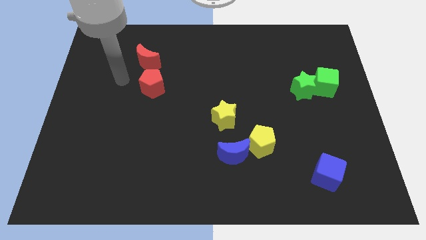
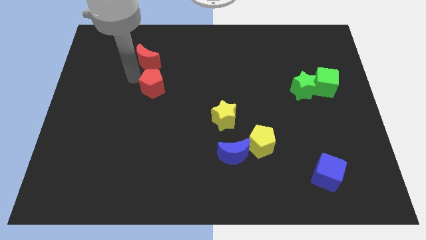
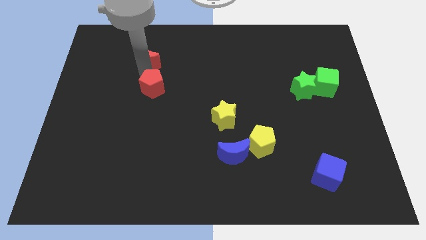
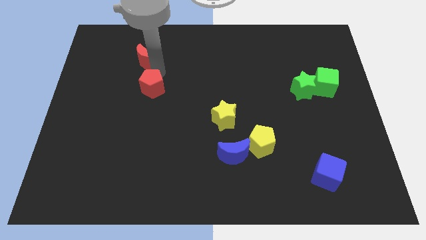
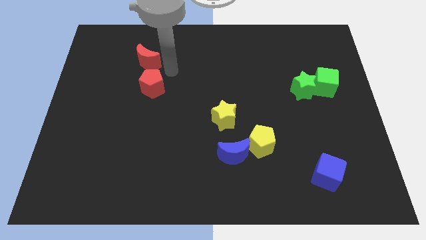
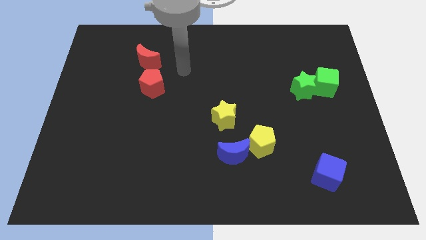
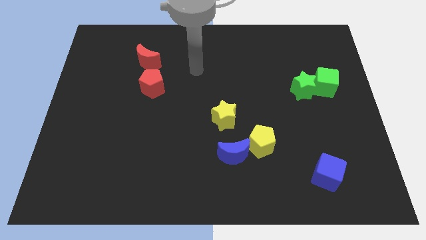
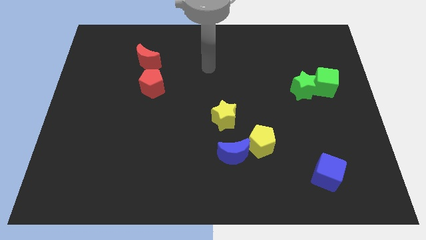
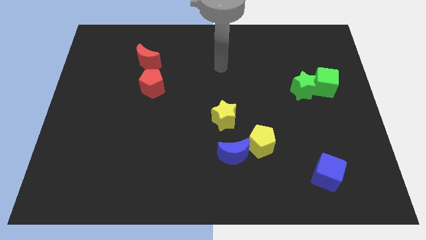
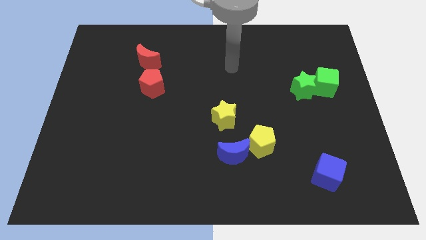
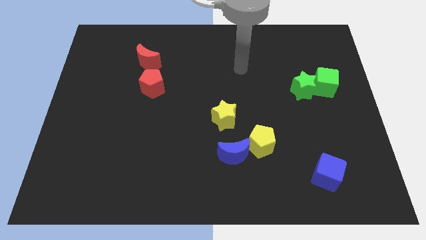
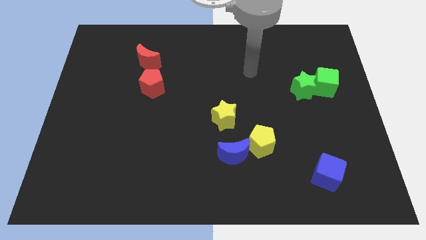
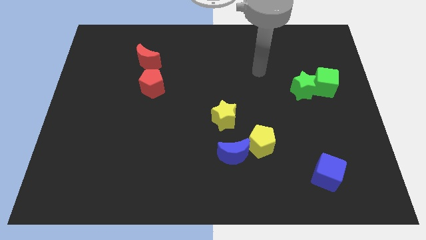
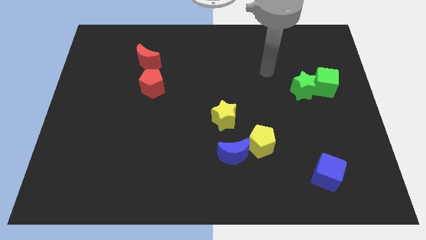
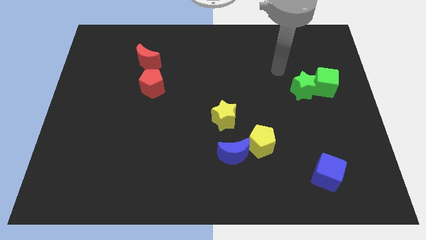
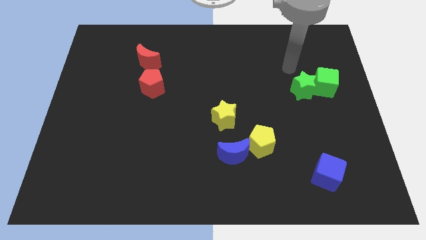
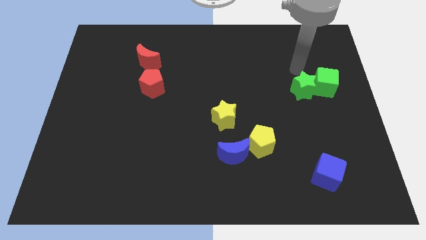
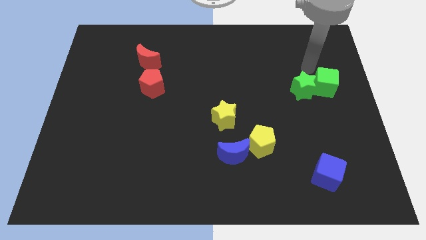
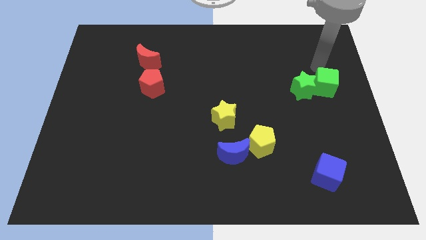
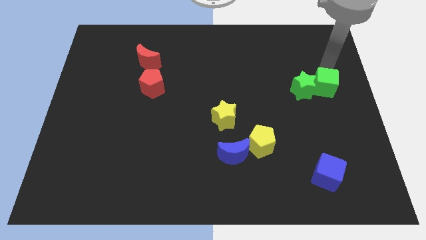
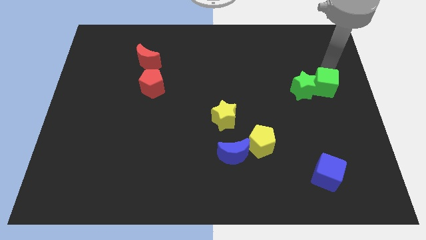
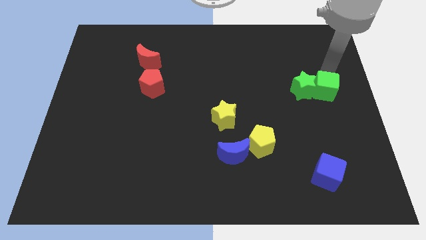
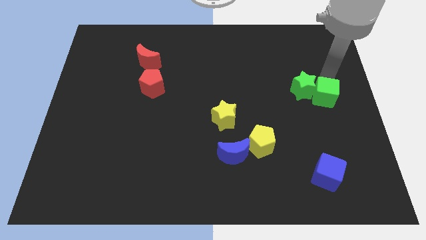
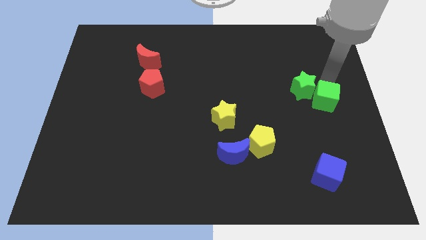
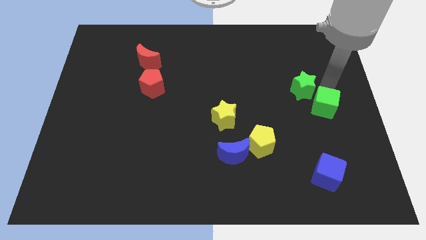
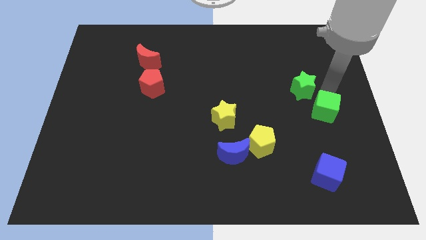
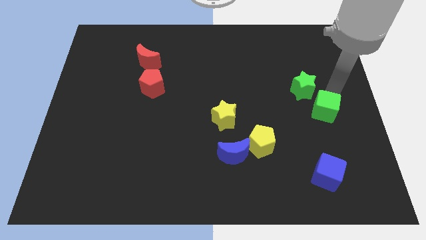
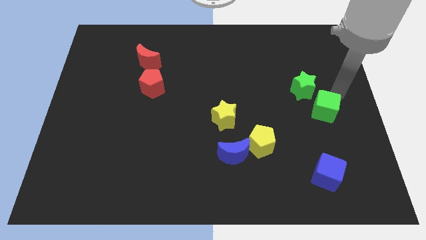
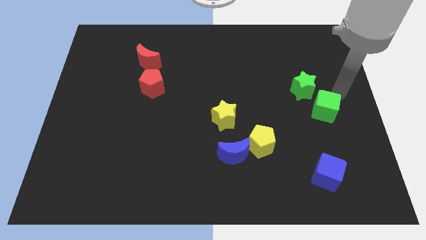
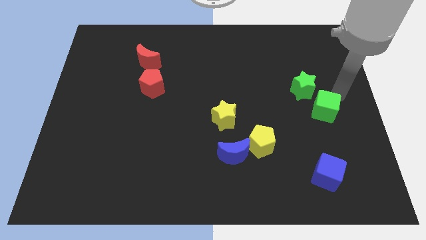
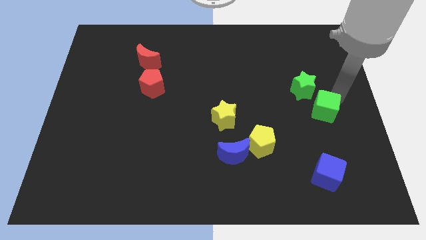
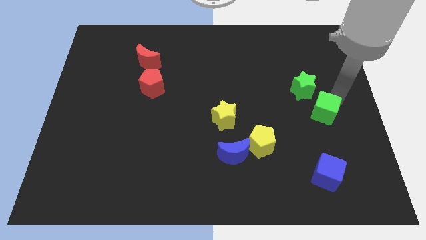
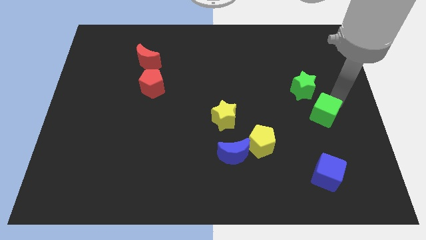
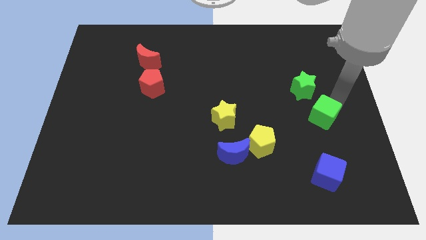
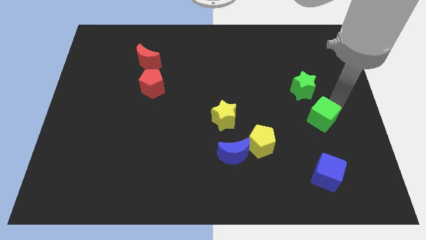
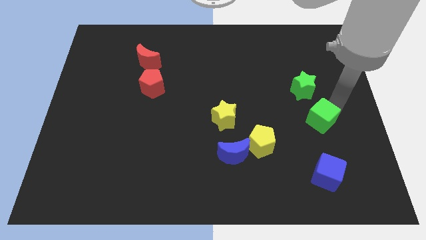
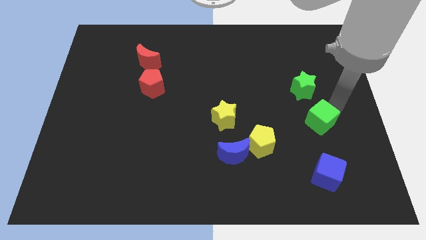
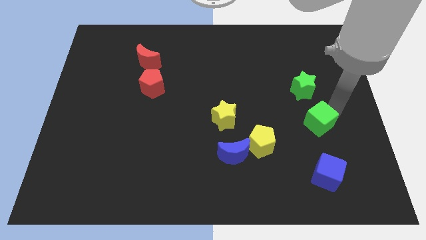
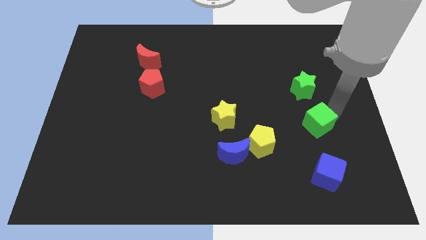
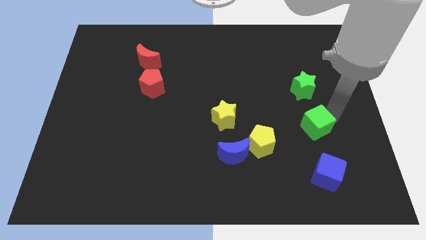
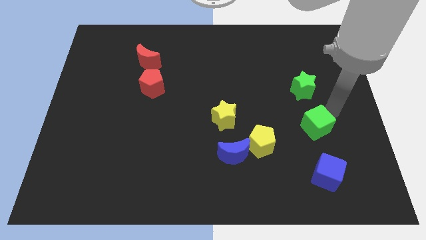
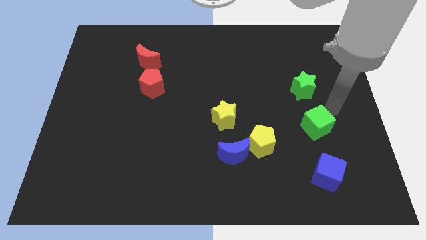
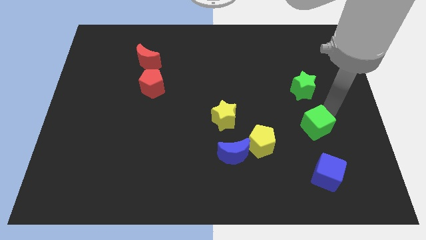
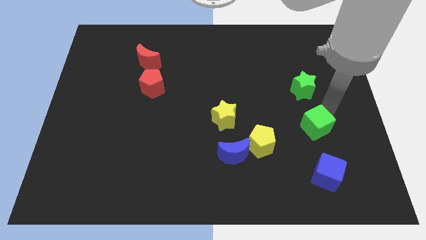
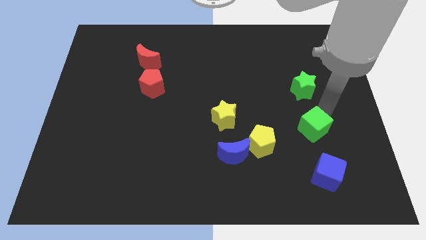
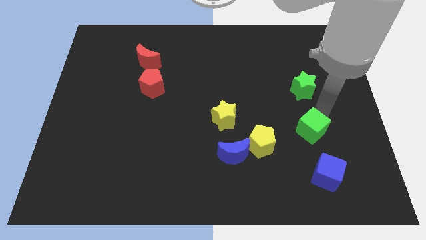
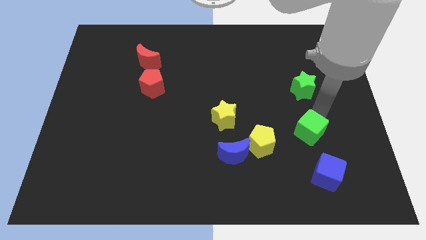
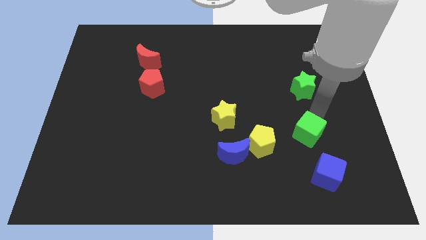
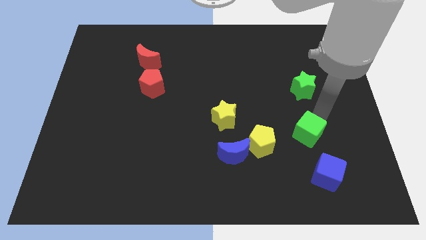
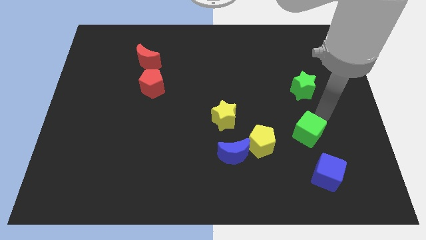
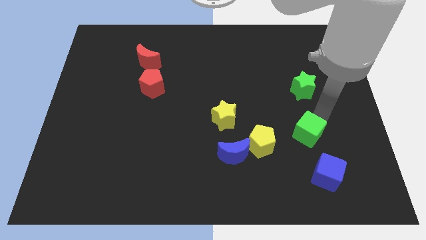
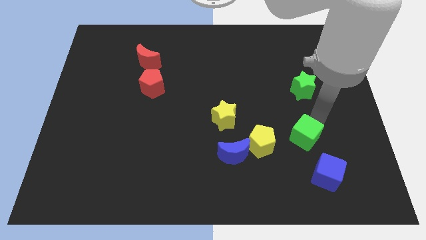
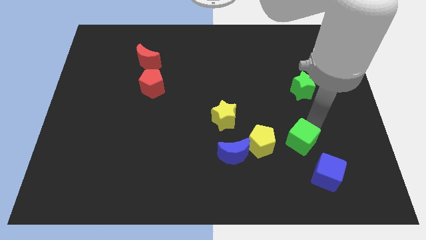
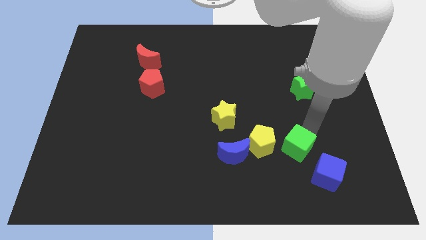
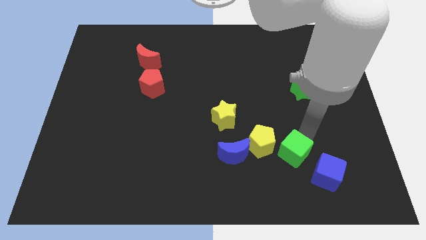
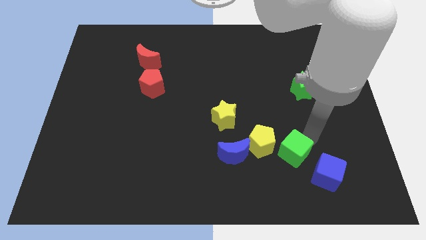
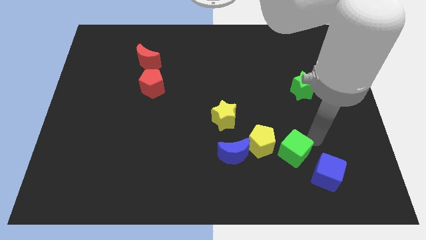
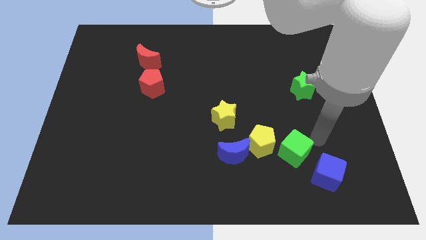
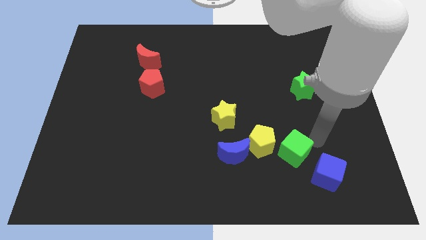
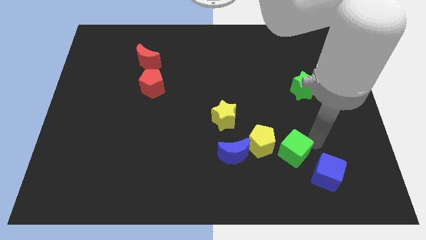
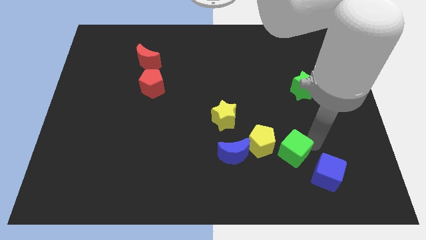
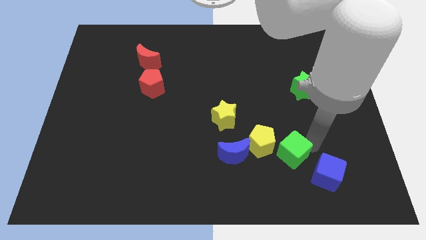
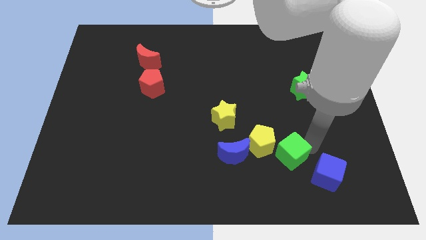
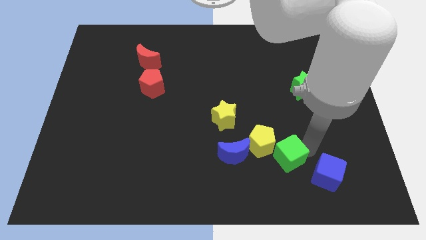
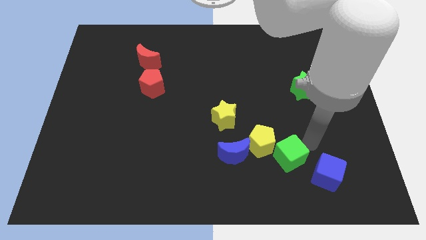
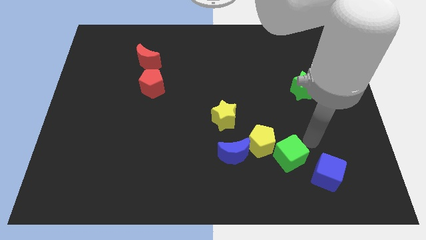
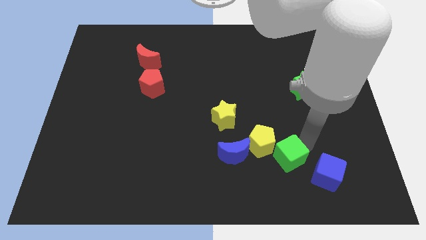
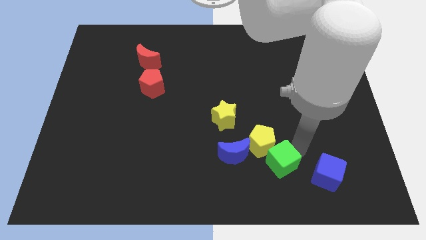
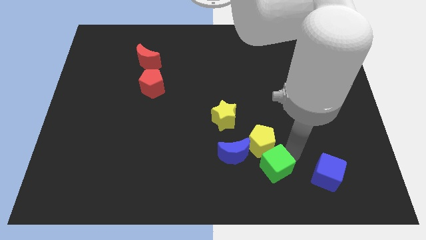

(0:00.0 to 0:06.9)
put the green cube diagonally down and to the right of the blue moon
